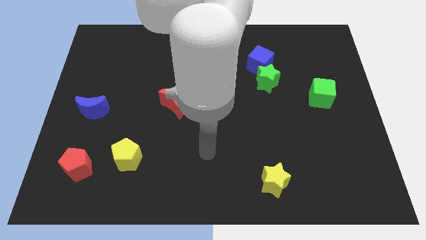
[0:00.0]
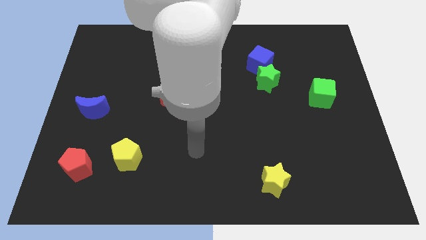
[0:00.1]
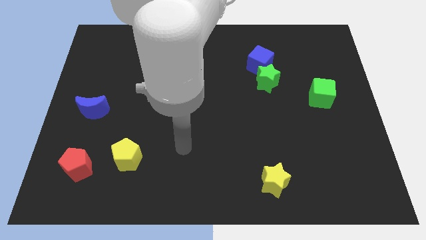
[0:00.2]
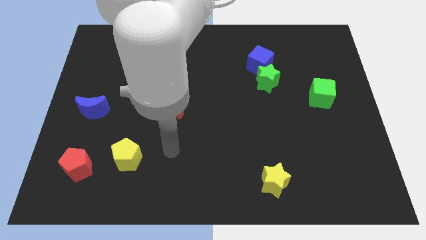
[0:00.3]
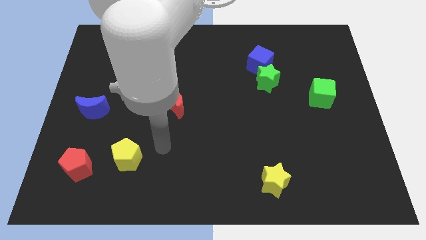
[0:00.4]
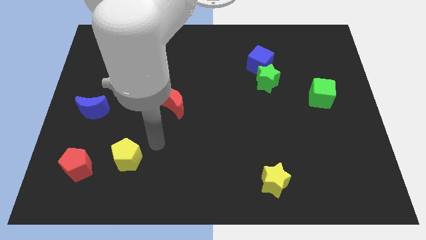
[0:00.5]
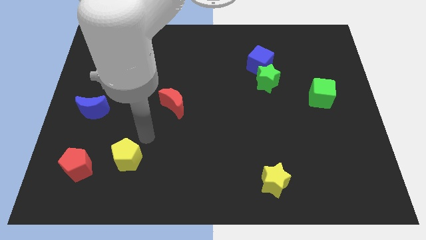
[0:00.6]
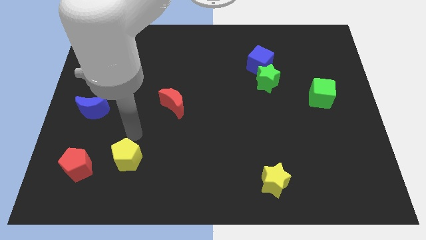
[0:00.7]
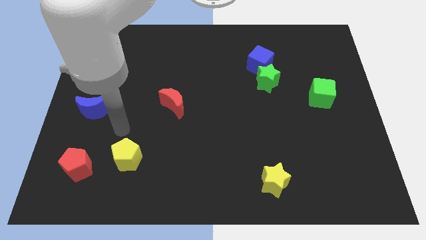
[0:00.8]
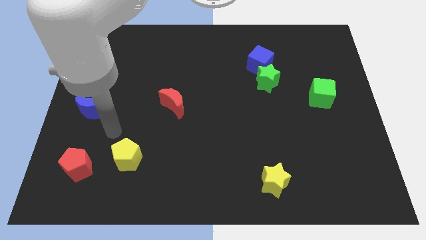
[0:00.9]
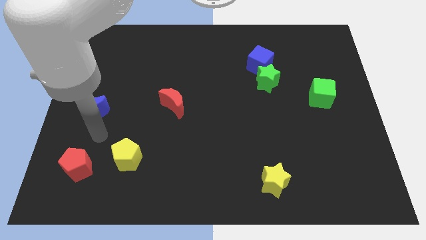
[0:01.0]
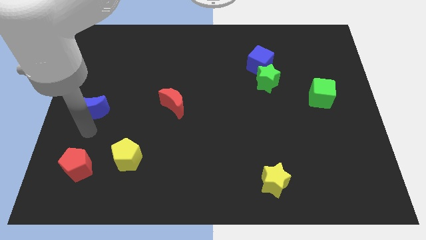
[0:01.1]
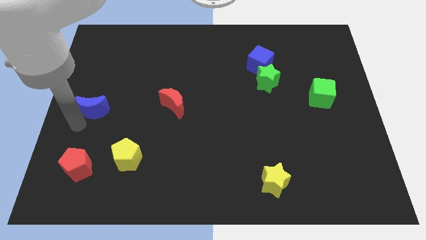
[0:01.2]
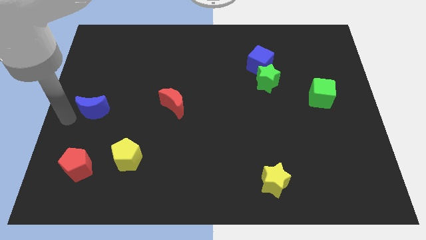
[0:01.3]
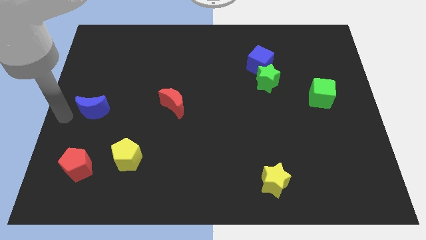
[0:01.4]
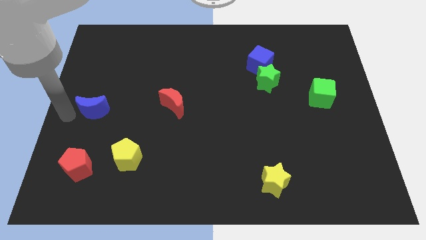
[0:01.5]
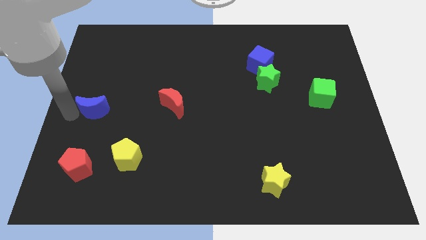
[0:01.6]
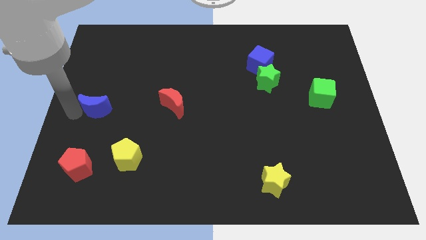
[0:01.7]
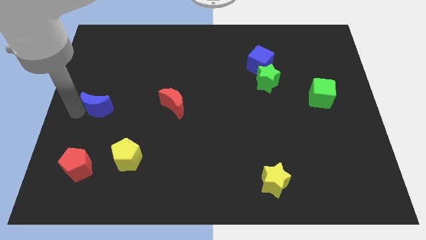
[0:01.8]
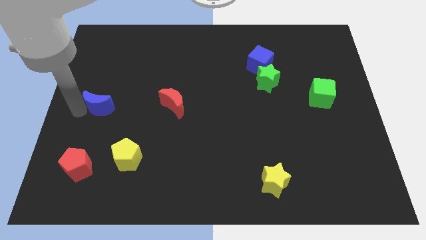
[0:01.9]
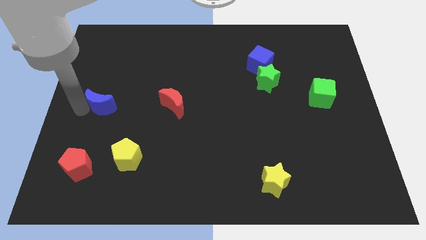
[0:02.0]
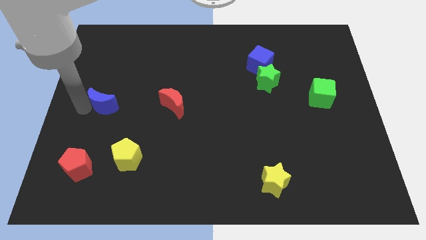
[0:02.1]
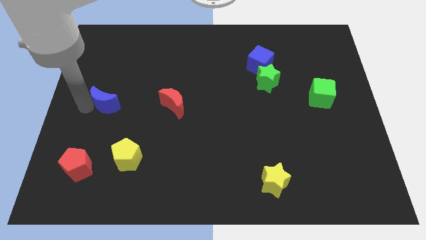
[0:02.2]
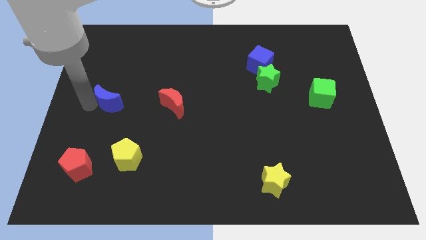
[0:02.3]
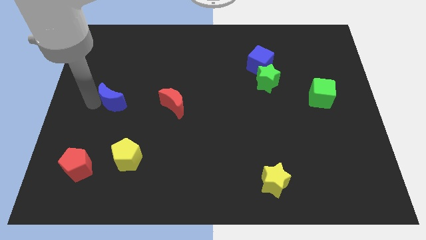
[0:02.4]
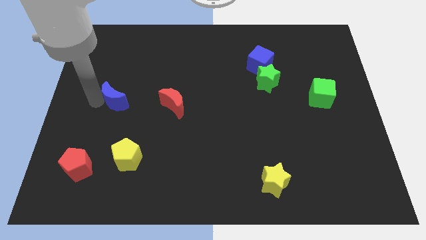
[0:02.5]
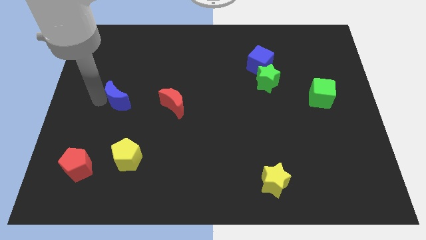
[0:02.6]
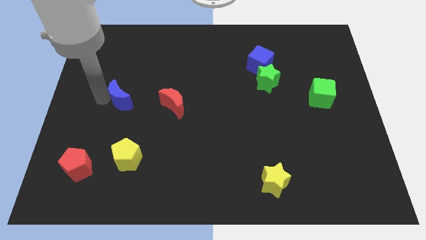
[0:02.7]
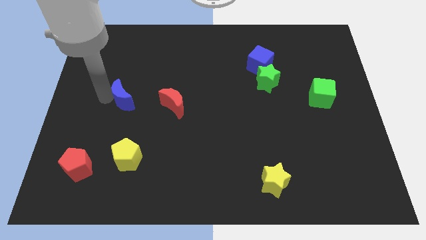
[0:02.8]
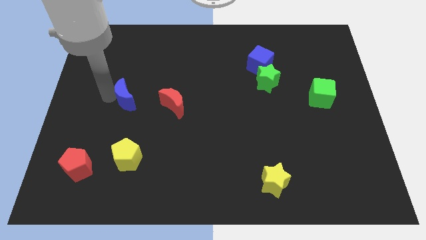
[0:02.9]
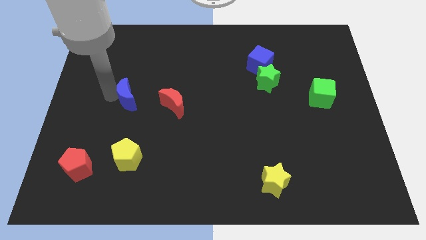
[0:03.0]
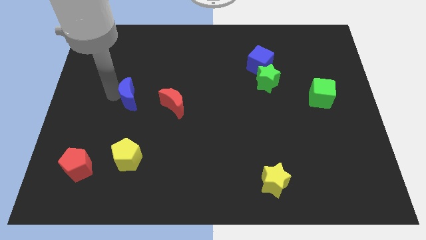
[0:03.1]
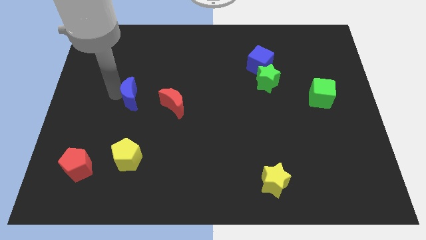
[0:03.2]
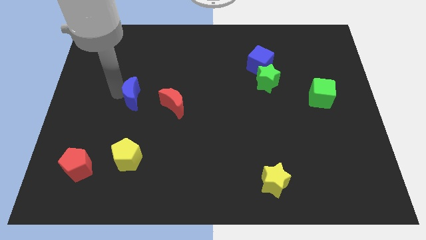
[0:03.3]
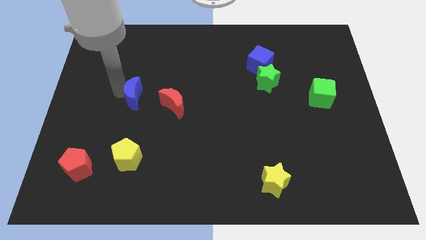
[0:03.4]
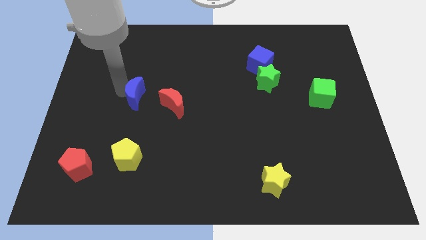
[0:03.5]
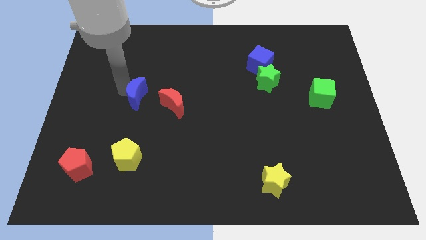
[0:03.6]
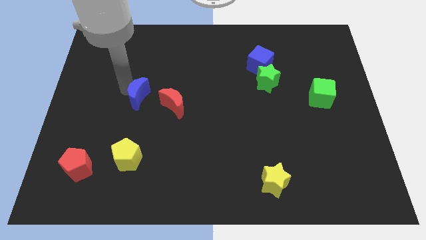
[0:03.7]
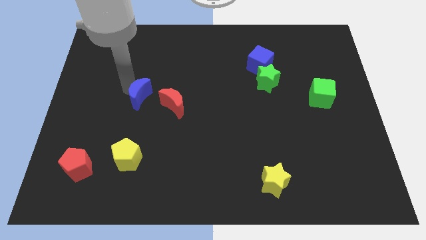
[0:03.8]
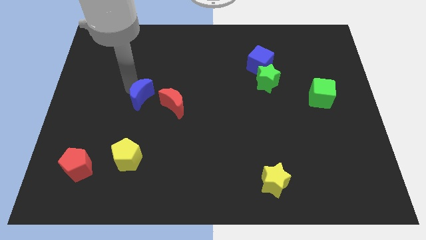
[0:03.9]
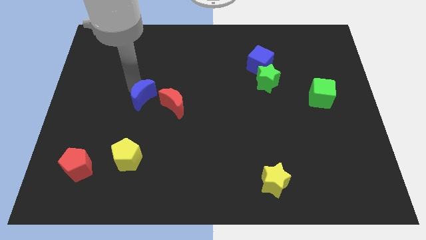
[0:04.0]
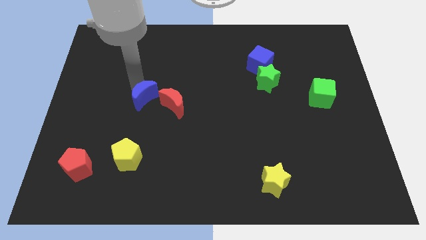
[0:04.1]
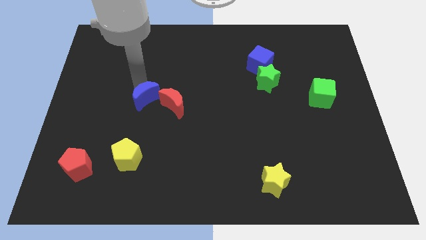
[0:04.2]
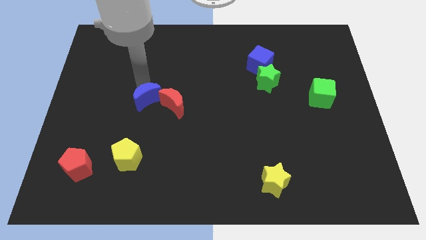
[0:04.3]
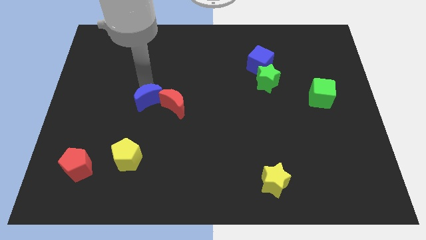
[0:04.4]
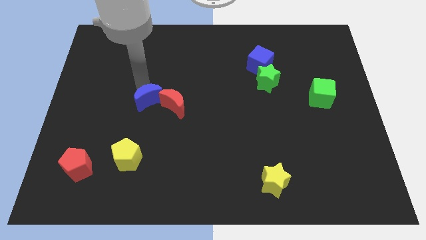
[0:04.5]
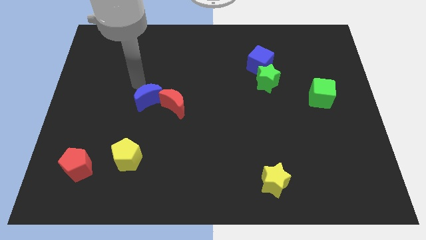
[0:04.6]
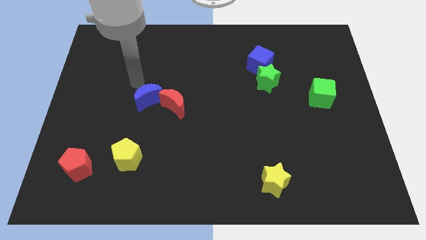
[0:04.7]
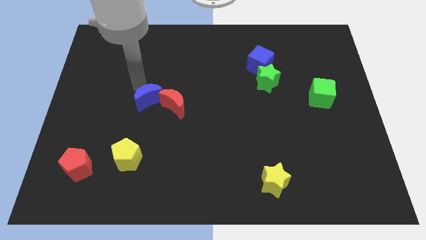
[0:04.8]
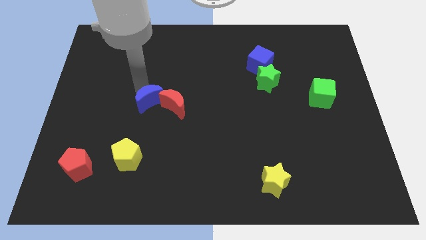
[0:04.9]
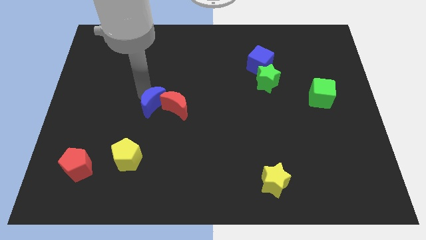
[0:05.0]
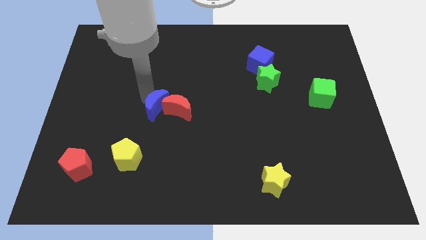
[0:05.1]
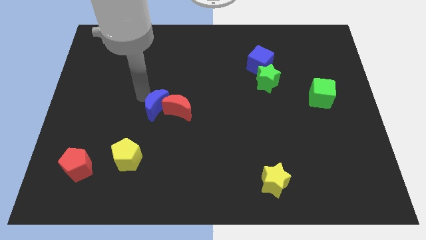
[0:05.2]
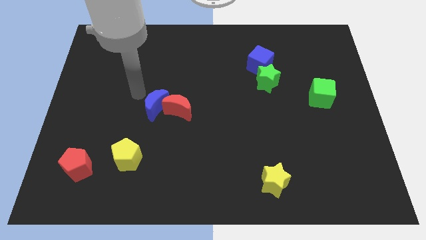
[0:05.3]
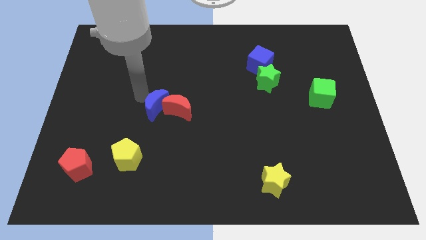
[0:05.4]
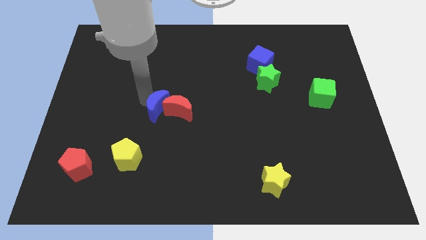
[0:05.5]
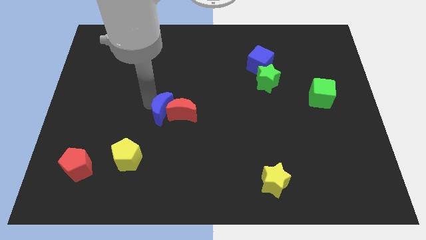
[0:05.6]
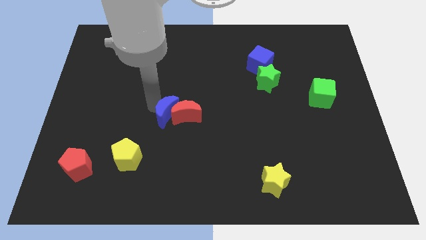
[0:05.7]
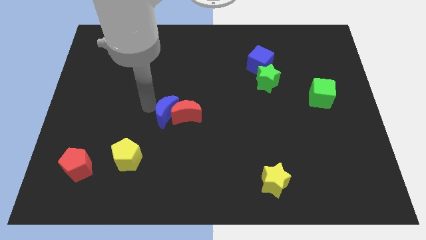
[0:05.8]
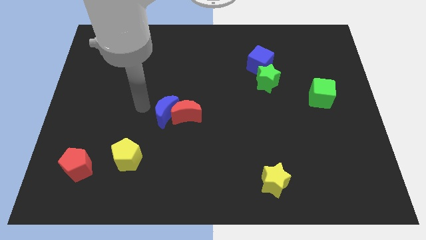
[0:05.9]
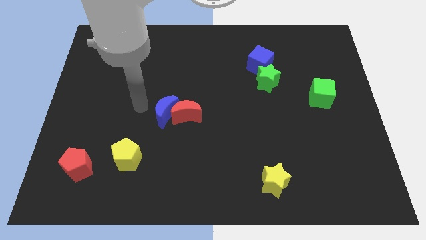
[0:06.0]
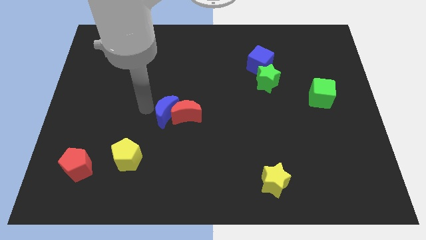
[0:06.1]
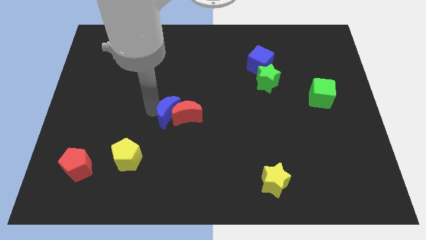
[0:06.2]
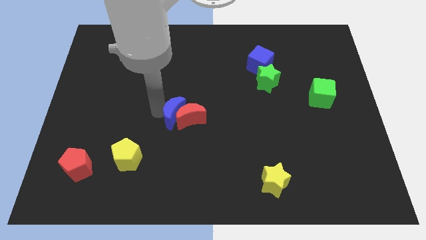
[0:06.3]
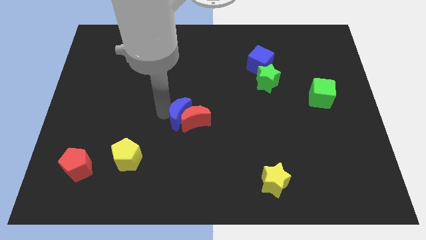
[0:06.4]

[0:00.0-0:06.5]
push the blue moon right

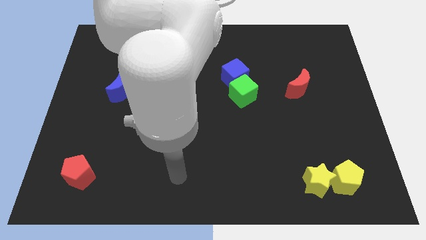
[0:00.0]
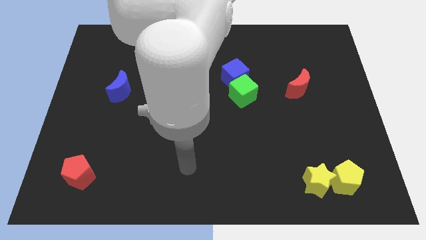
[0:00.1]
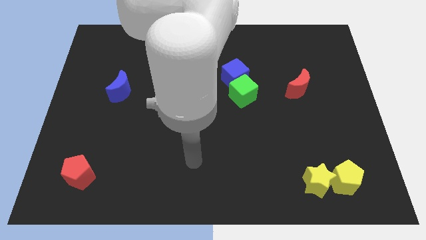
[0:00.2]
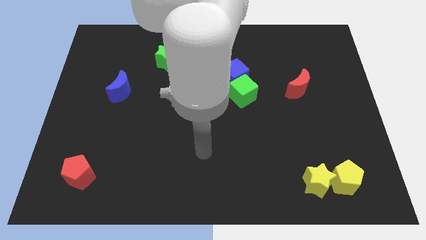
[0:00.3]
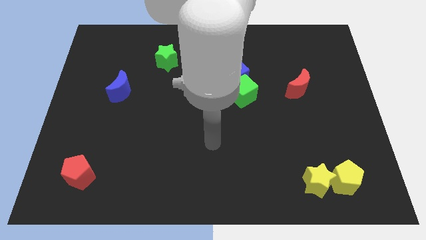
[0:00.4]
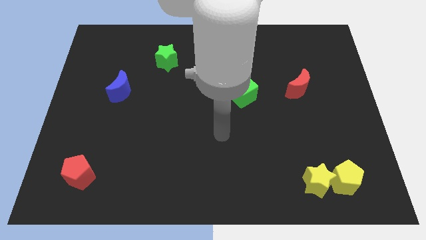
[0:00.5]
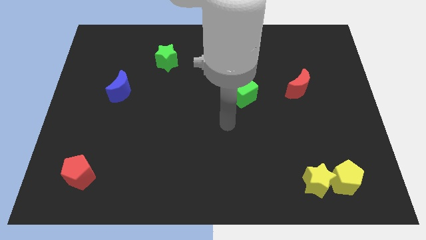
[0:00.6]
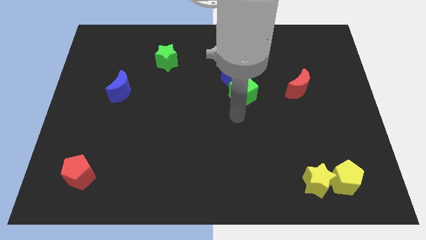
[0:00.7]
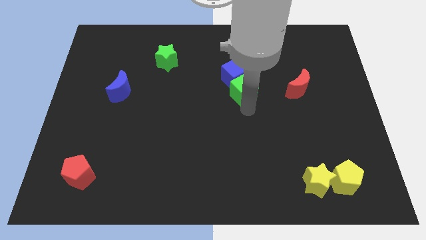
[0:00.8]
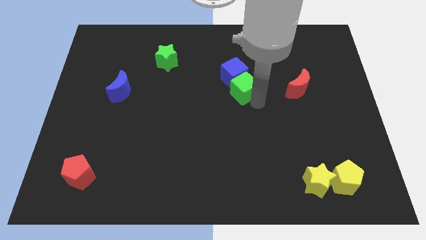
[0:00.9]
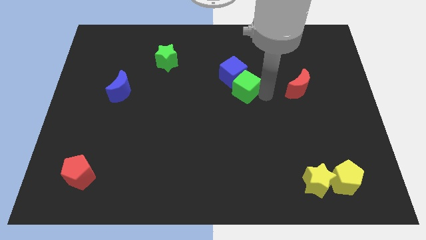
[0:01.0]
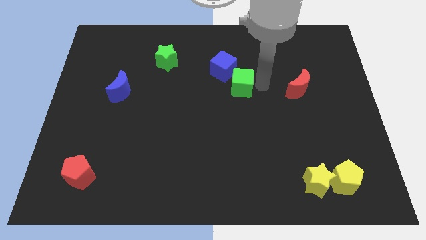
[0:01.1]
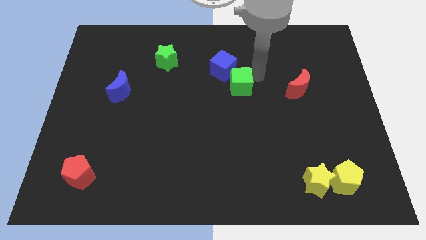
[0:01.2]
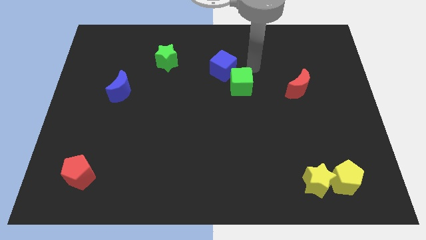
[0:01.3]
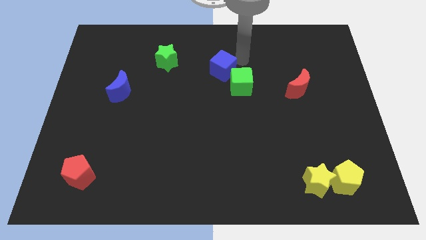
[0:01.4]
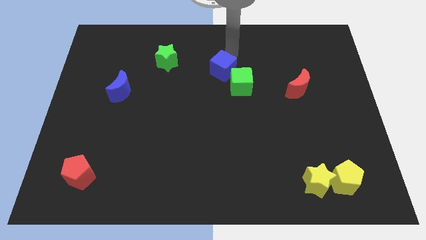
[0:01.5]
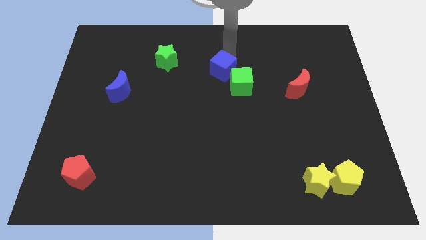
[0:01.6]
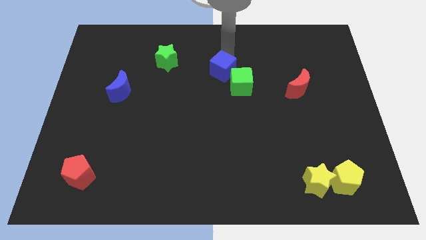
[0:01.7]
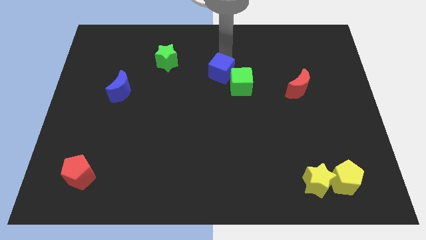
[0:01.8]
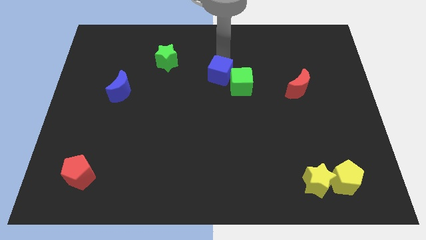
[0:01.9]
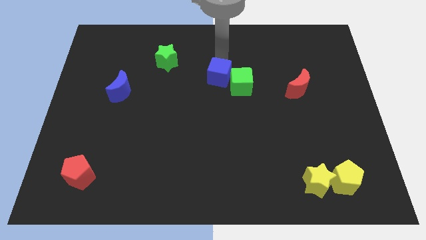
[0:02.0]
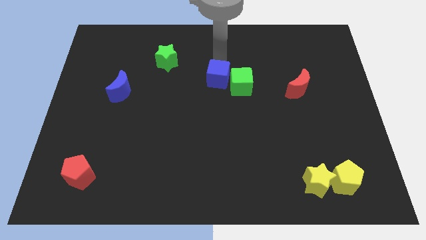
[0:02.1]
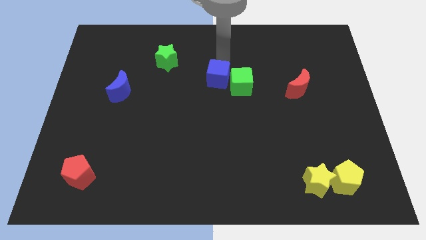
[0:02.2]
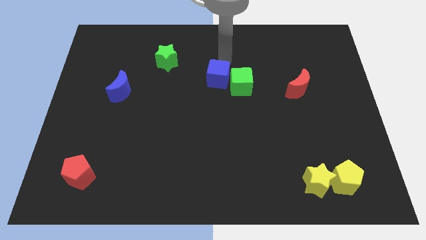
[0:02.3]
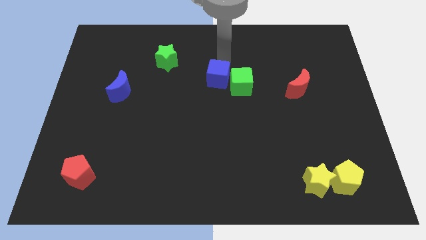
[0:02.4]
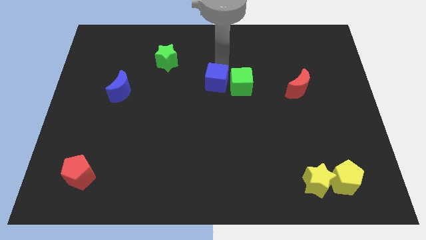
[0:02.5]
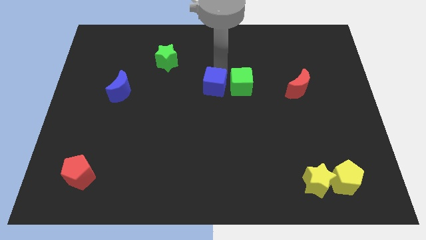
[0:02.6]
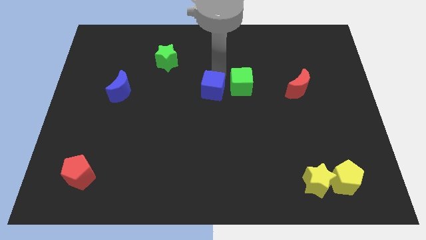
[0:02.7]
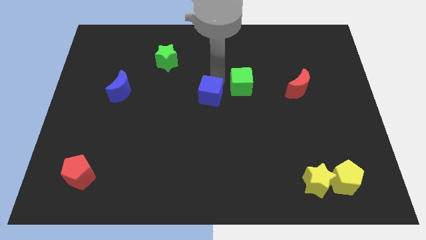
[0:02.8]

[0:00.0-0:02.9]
move the blue cube down and left diagonally somewhat
